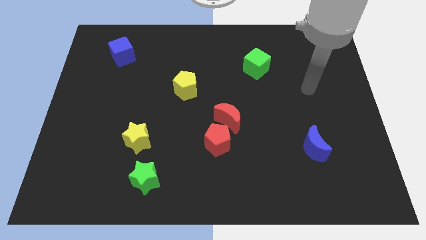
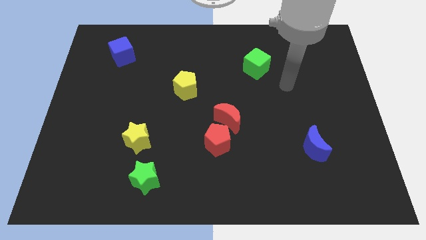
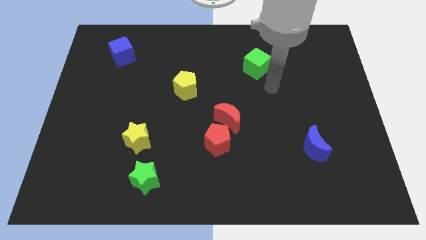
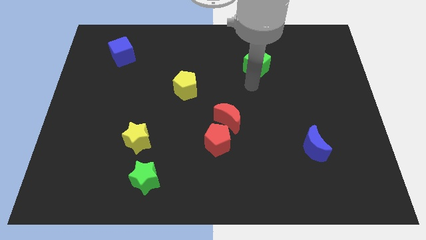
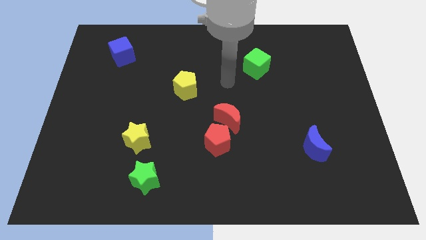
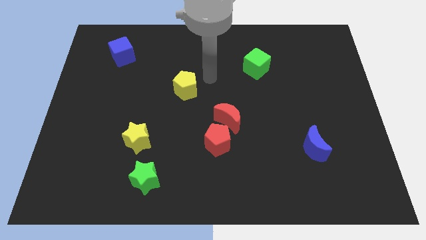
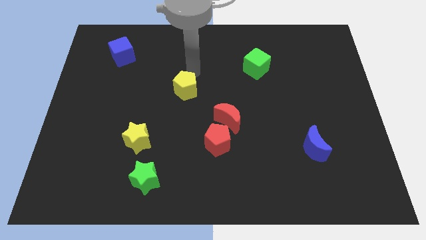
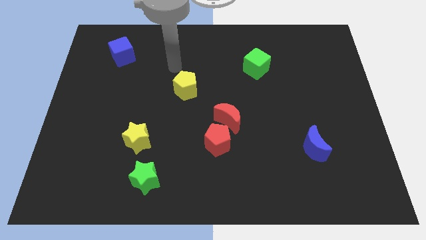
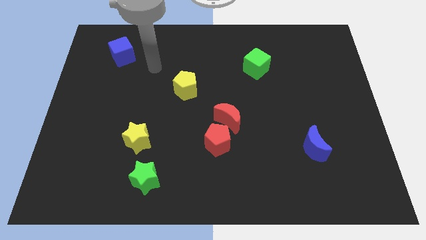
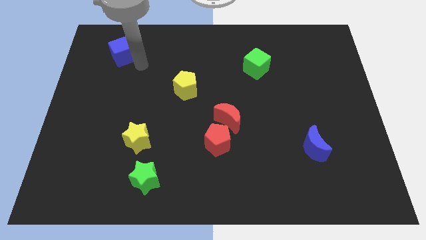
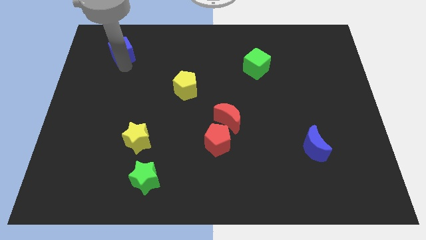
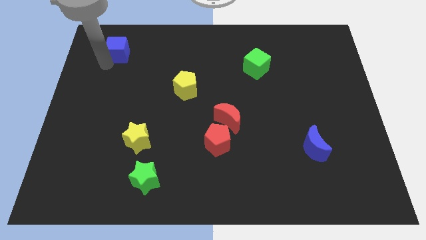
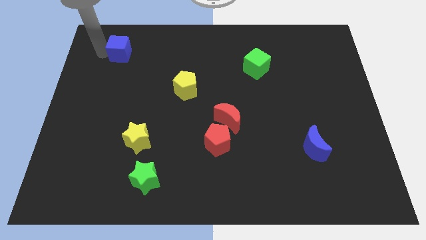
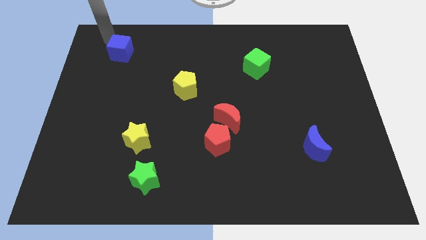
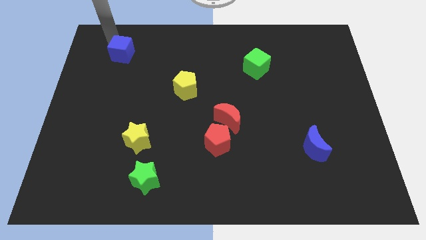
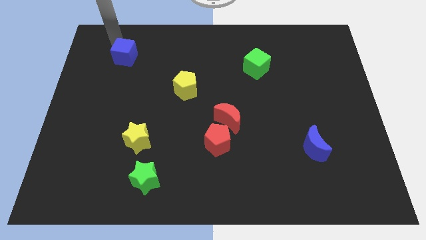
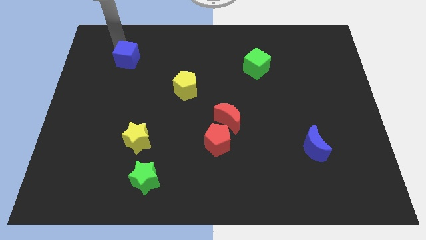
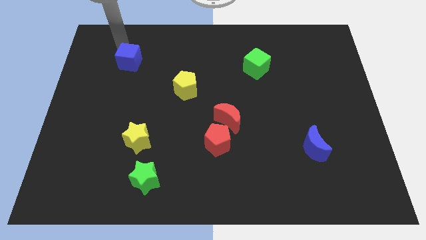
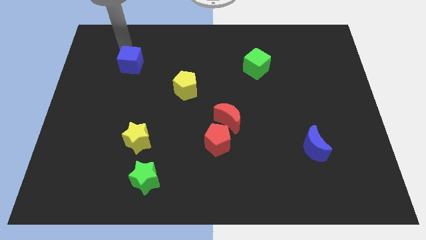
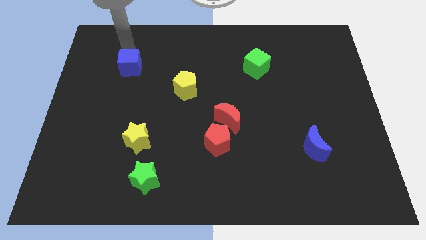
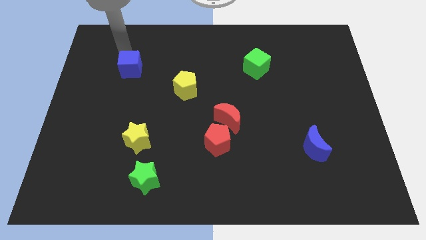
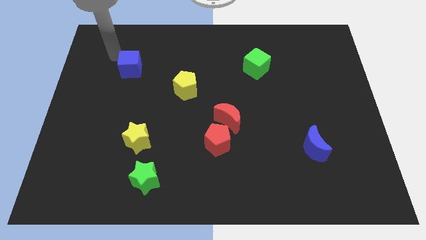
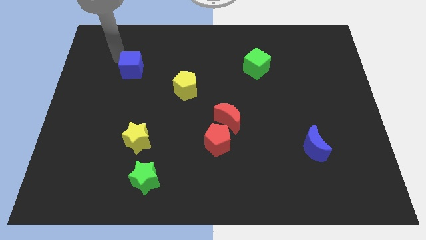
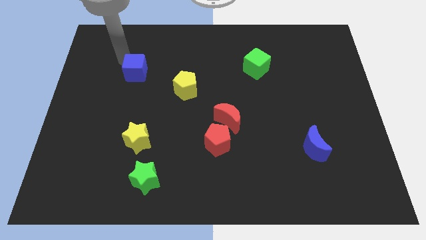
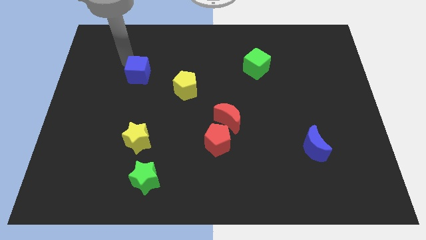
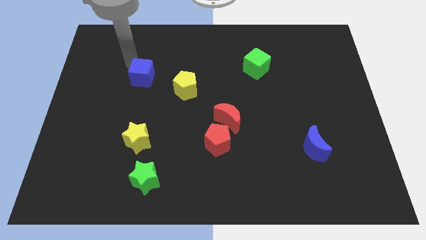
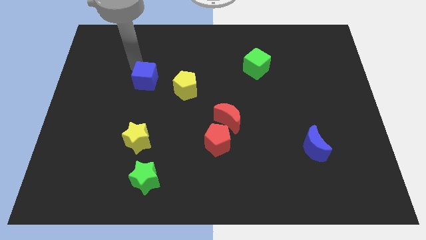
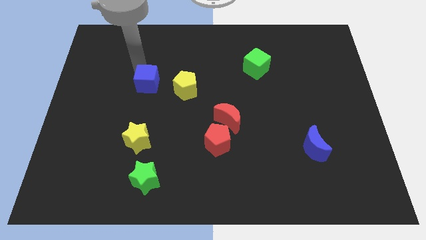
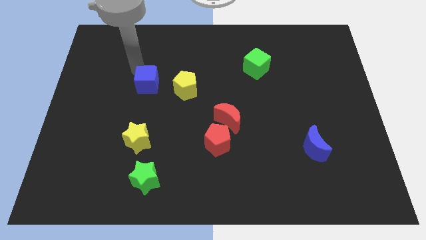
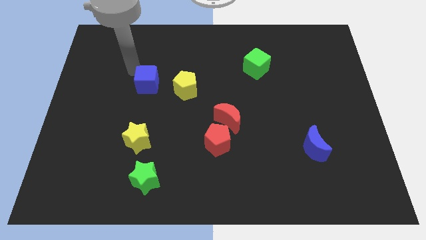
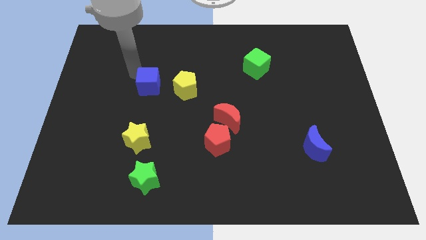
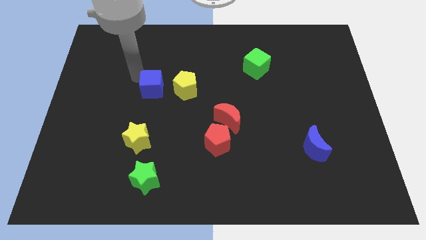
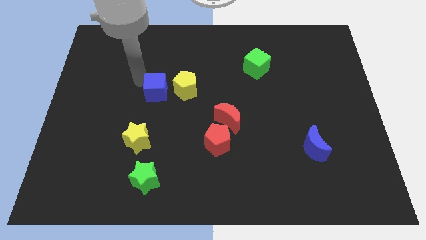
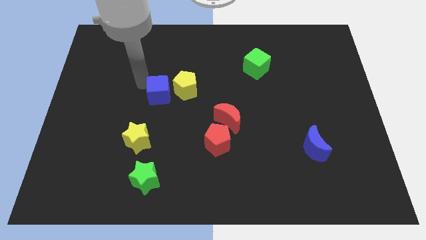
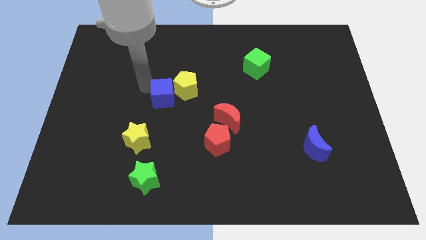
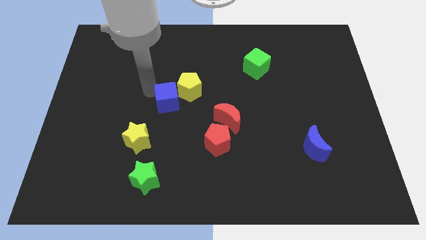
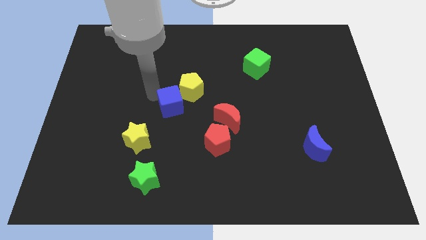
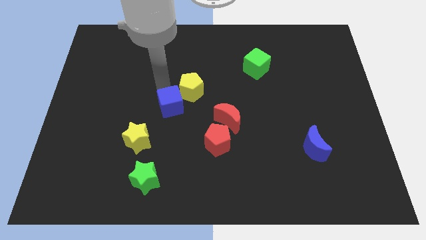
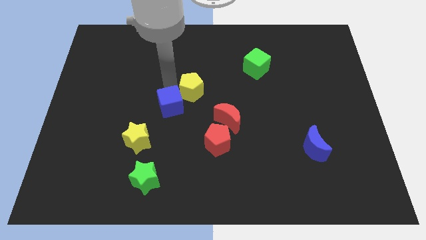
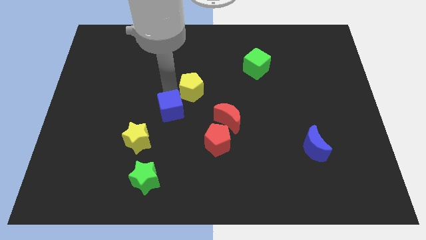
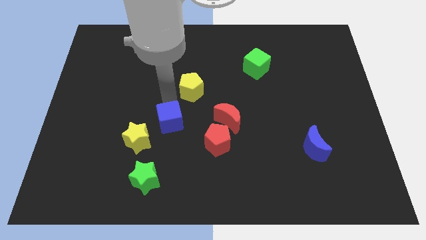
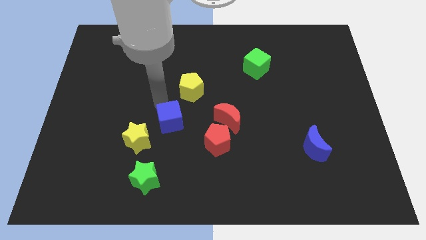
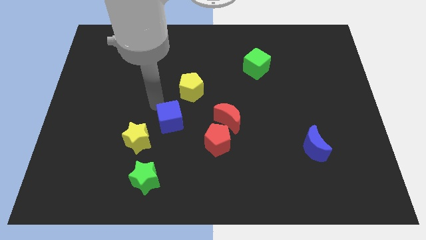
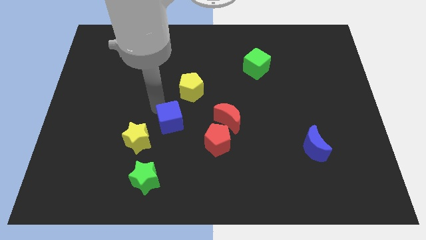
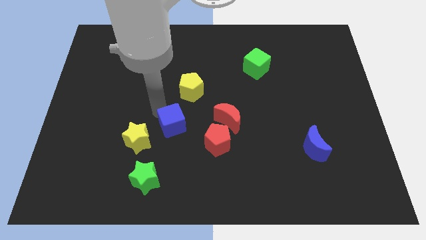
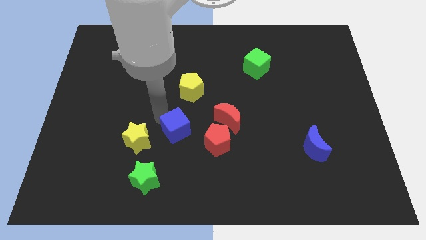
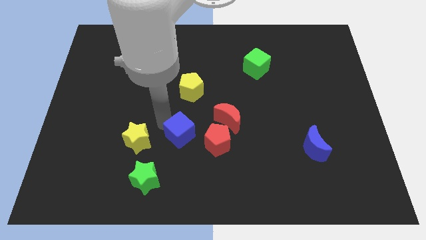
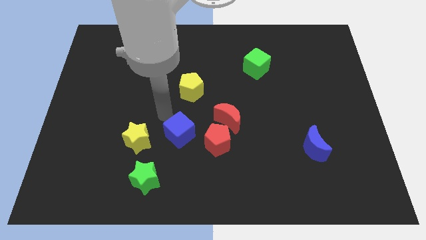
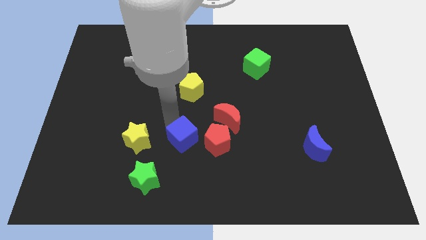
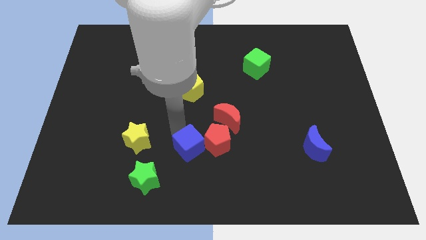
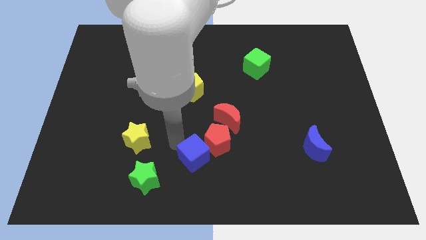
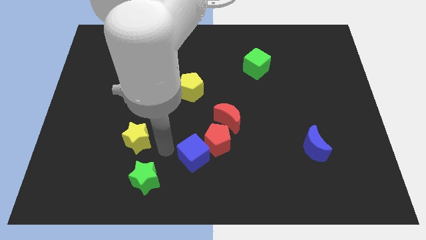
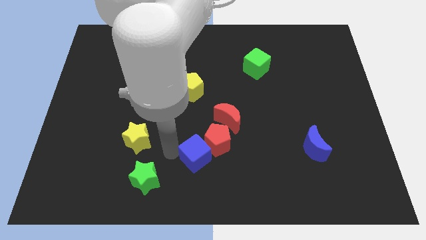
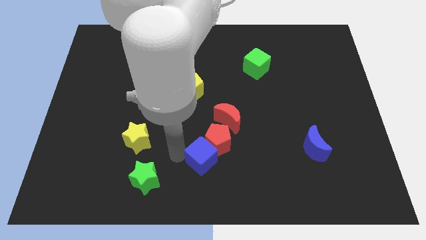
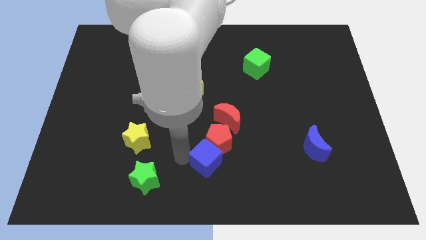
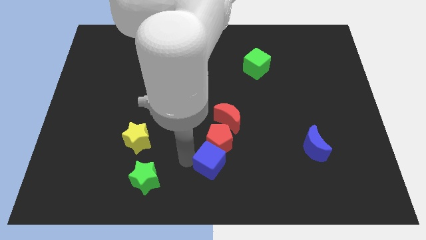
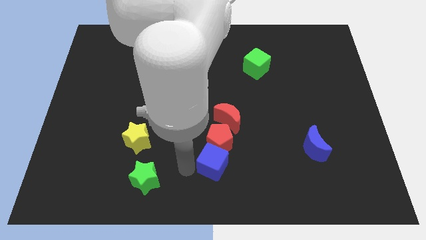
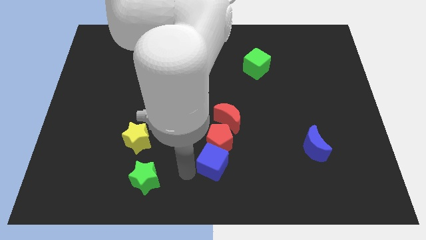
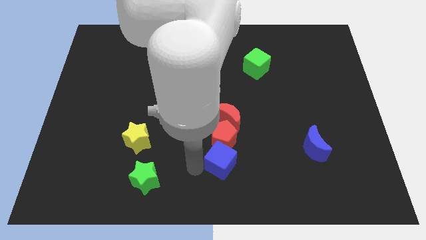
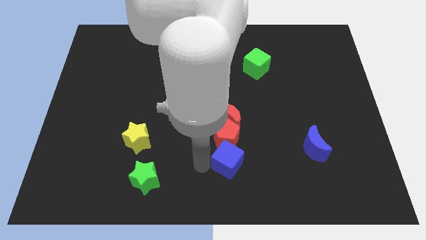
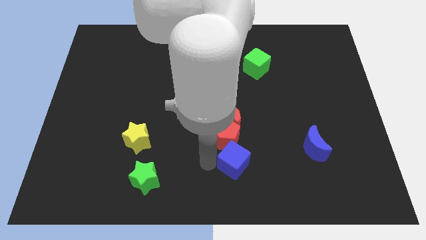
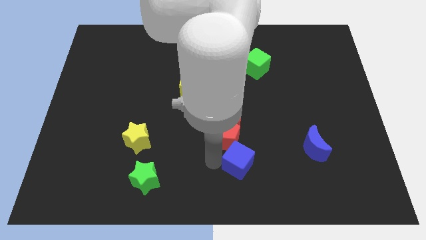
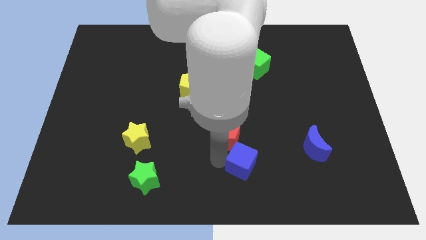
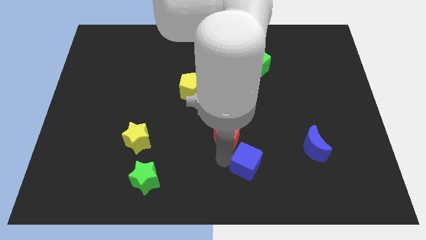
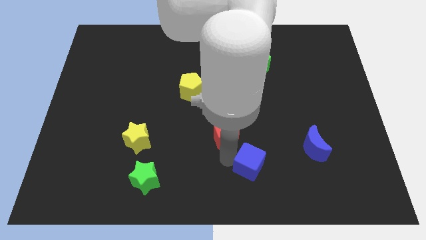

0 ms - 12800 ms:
move the blue cube just left of the blue moon

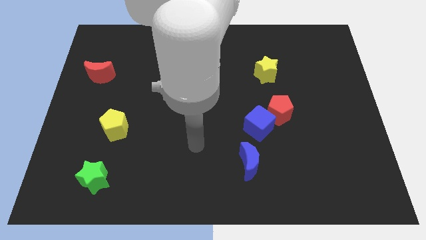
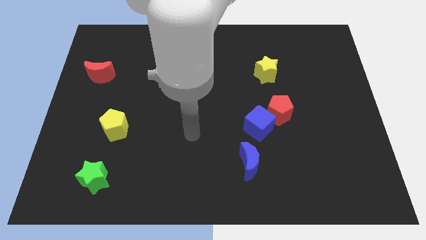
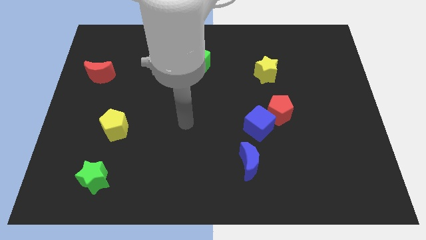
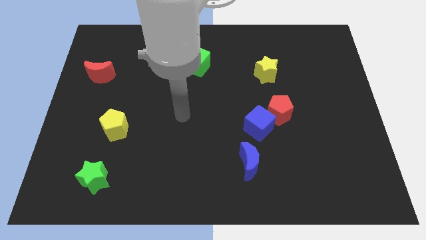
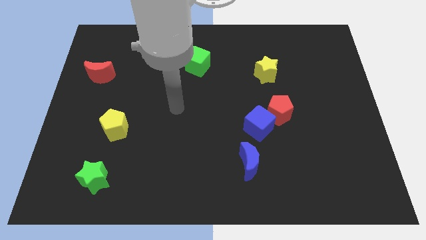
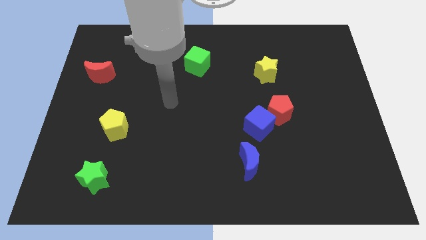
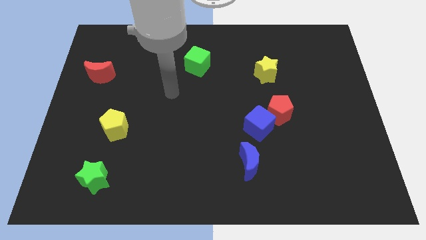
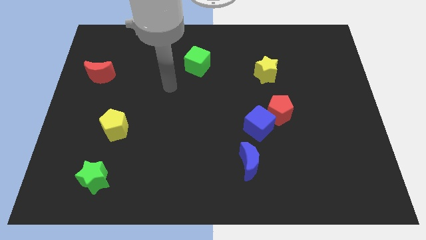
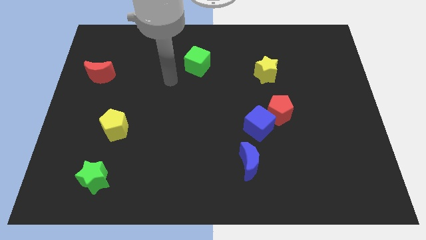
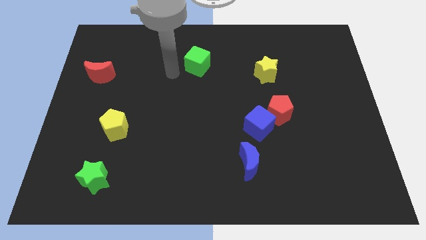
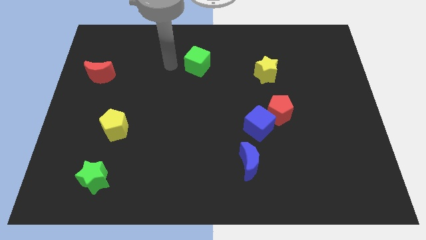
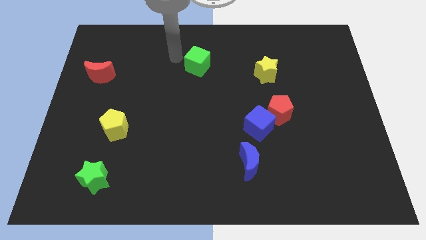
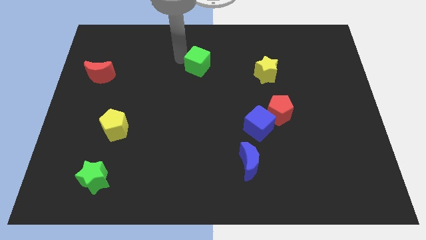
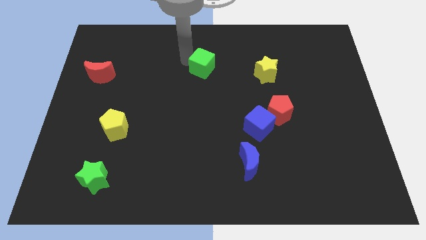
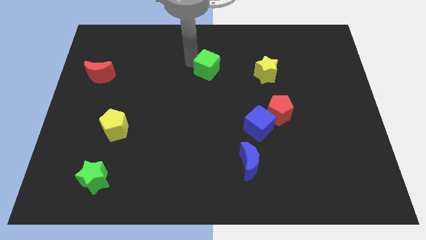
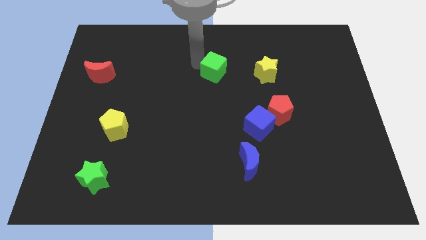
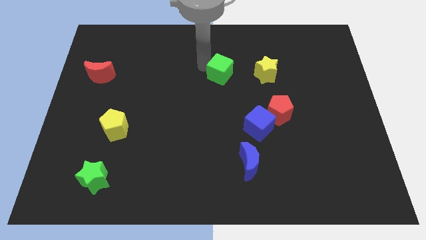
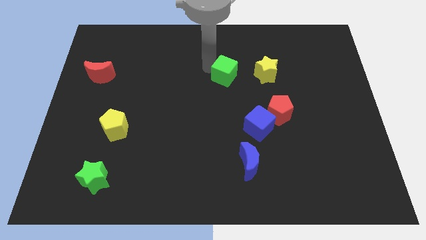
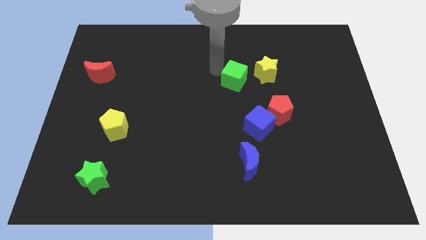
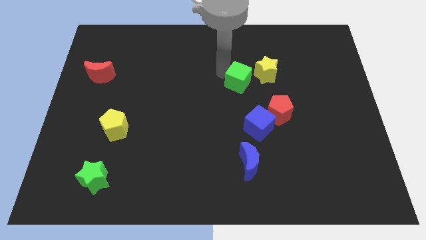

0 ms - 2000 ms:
put the green cube above the blue cube
